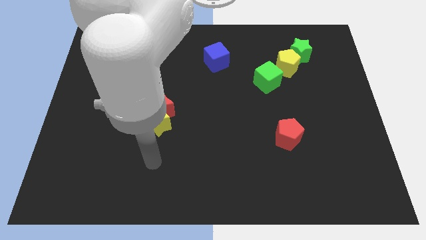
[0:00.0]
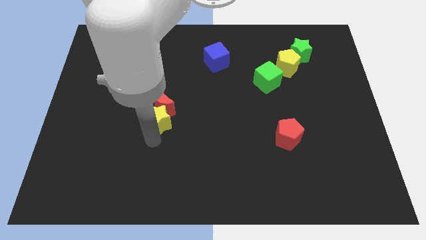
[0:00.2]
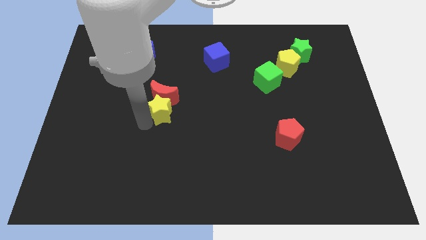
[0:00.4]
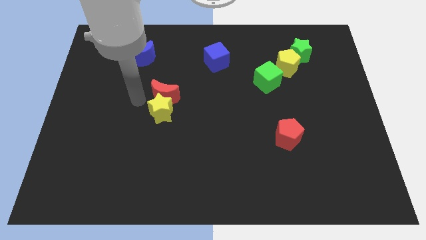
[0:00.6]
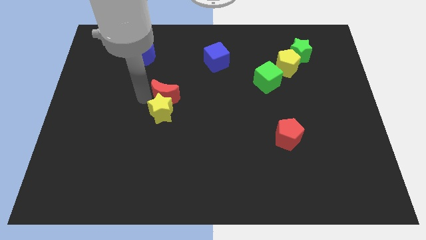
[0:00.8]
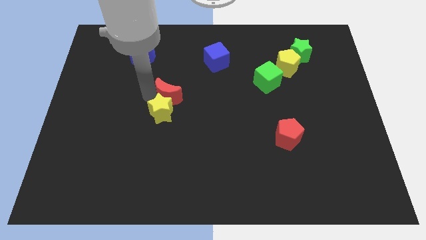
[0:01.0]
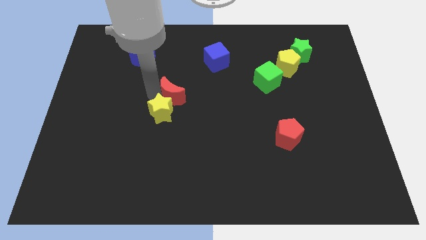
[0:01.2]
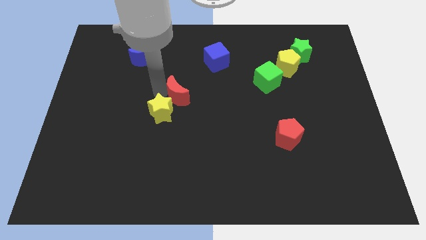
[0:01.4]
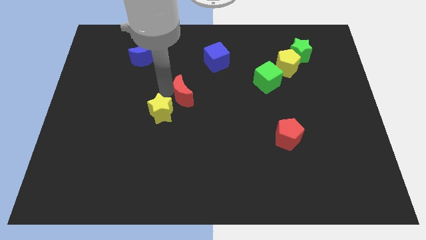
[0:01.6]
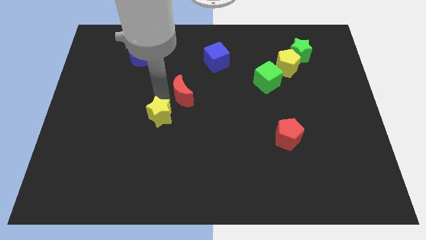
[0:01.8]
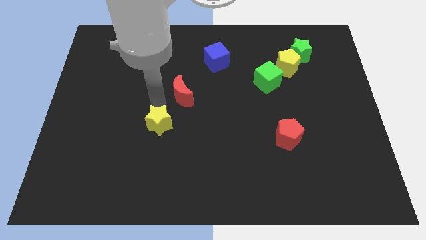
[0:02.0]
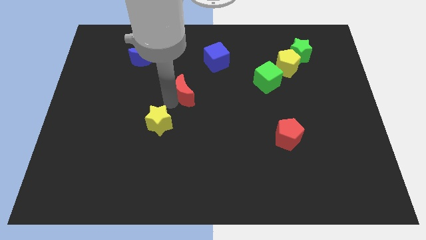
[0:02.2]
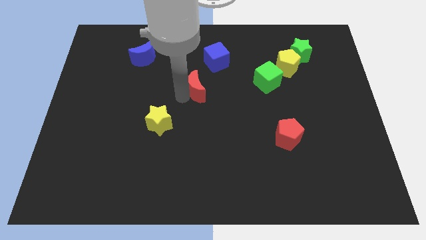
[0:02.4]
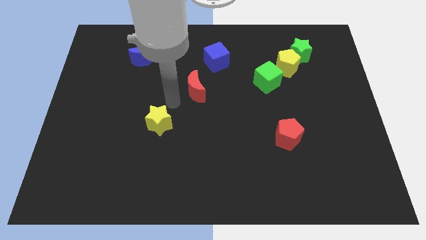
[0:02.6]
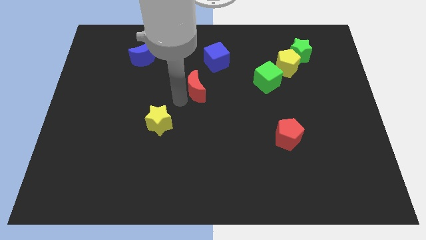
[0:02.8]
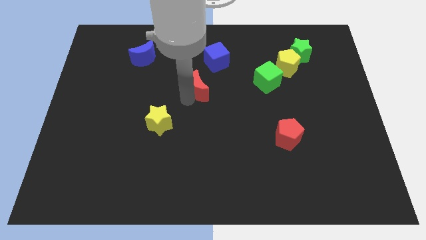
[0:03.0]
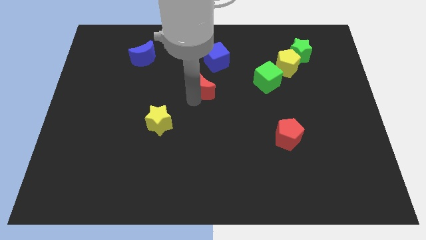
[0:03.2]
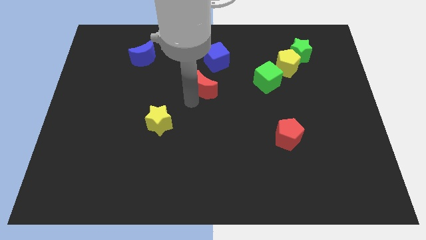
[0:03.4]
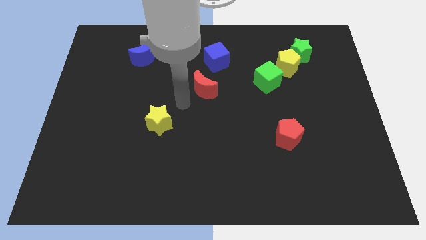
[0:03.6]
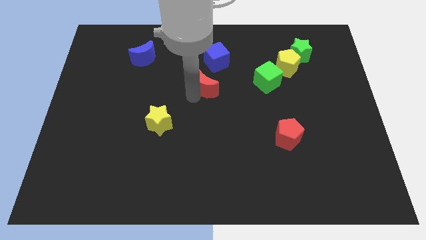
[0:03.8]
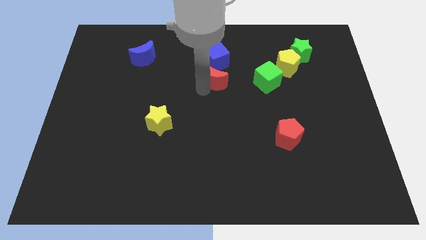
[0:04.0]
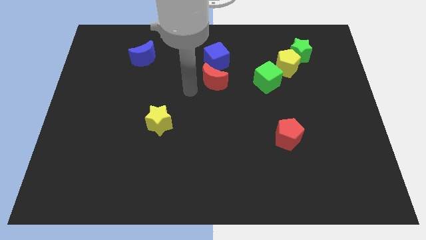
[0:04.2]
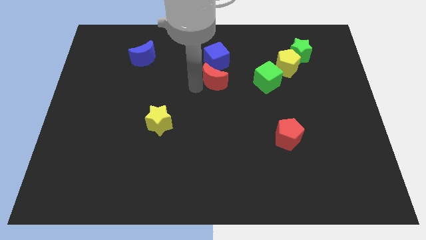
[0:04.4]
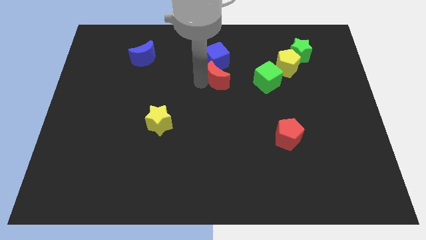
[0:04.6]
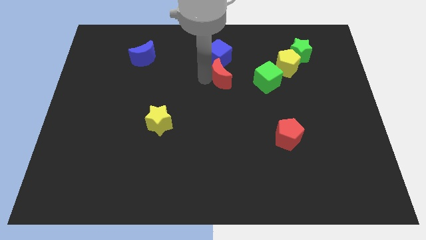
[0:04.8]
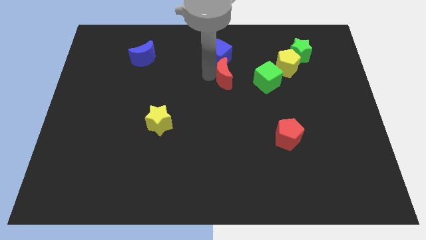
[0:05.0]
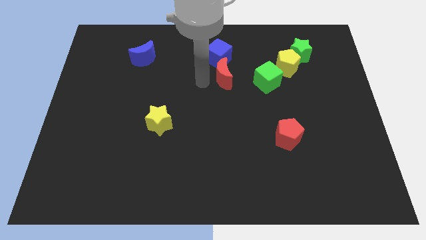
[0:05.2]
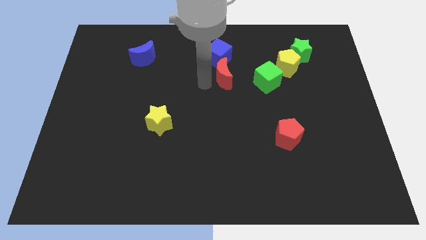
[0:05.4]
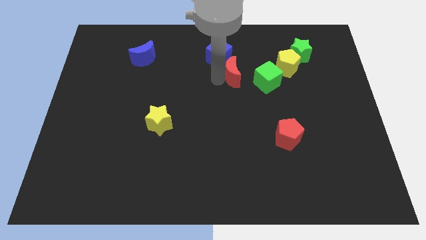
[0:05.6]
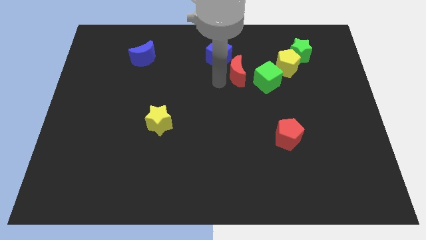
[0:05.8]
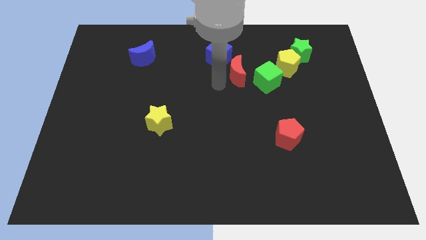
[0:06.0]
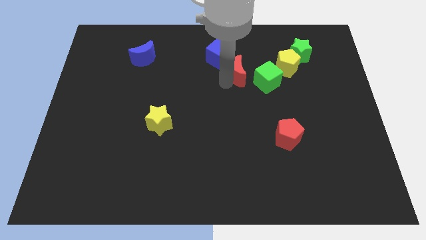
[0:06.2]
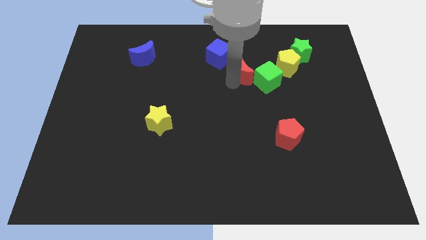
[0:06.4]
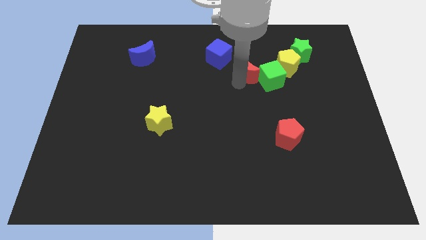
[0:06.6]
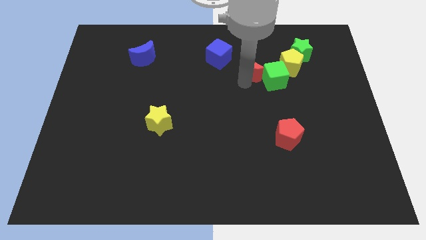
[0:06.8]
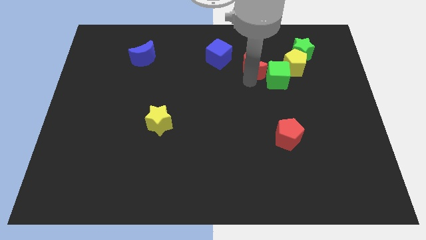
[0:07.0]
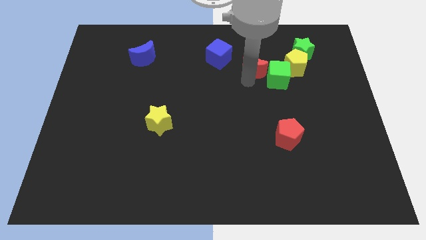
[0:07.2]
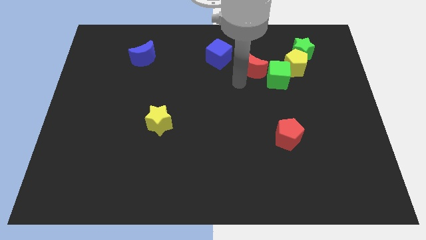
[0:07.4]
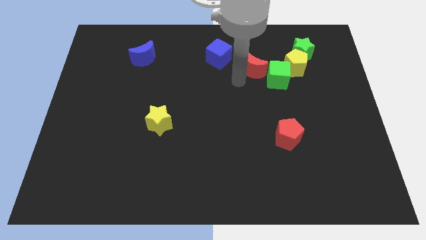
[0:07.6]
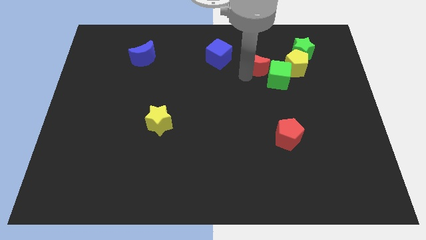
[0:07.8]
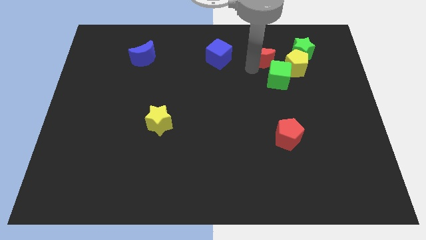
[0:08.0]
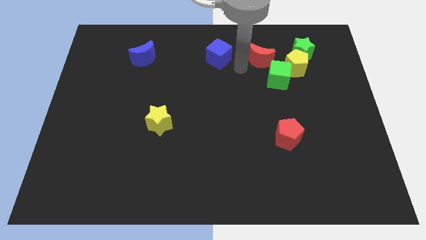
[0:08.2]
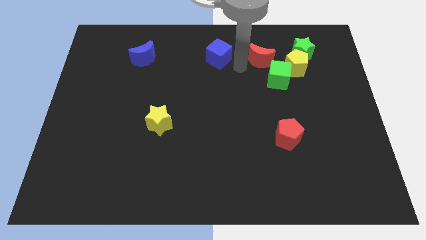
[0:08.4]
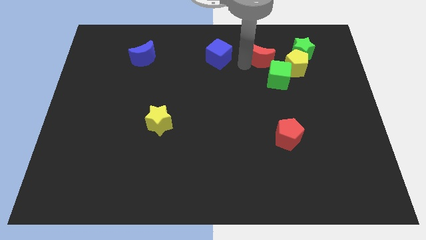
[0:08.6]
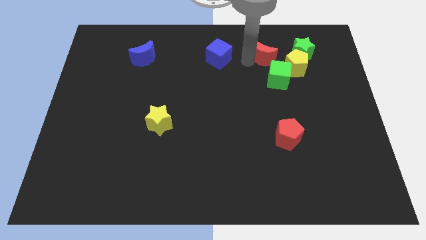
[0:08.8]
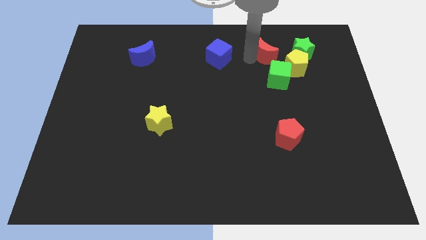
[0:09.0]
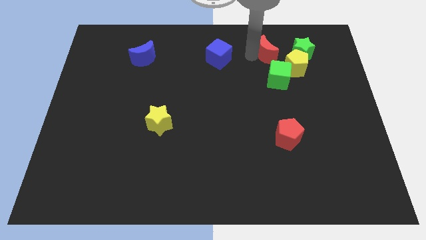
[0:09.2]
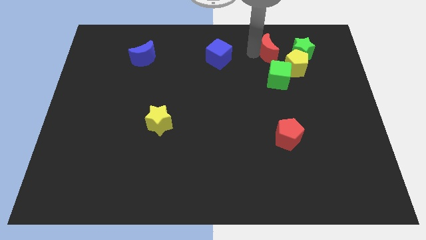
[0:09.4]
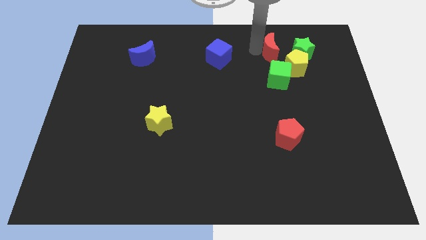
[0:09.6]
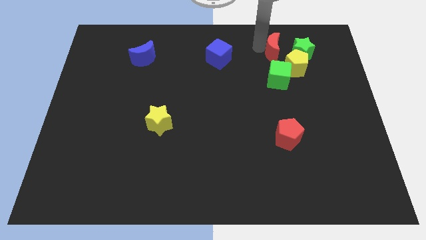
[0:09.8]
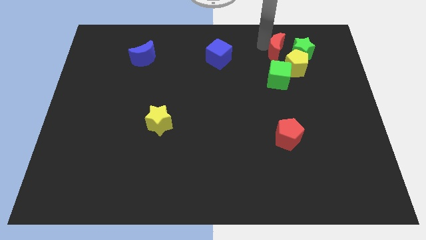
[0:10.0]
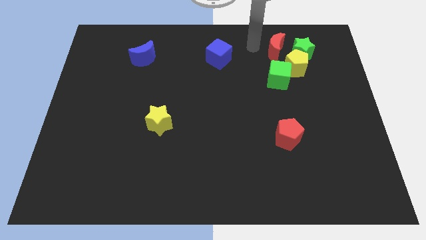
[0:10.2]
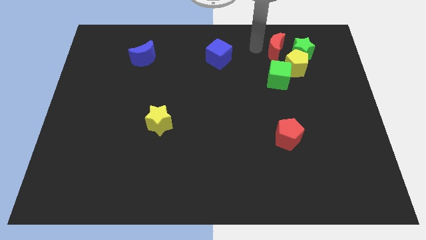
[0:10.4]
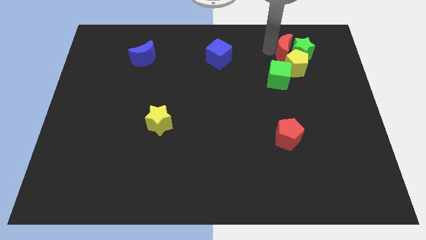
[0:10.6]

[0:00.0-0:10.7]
move the red moon next to the green star

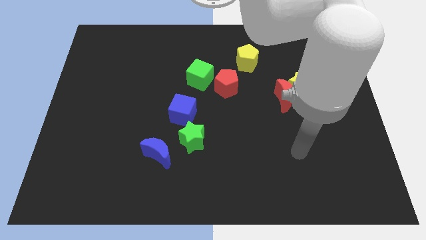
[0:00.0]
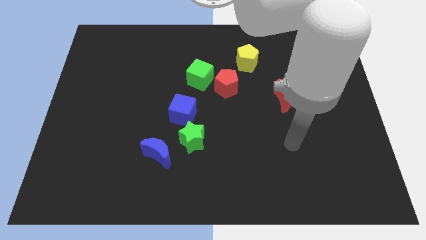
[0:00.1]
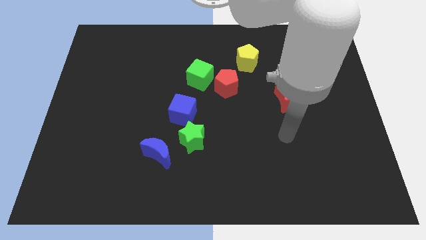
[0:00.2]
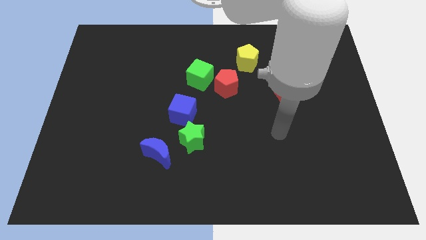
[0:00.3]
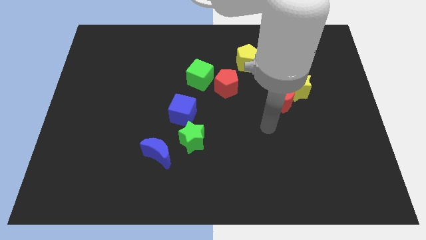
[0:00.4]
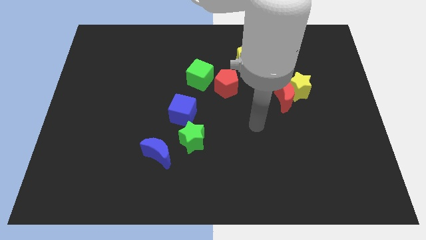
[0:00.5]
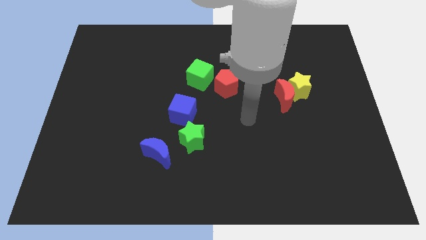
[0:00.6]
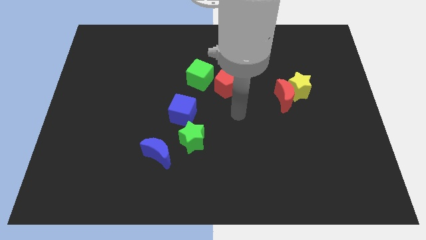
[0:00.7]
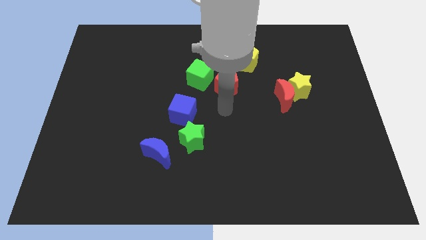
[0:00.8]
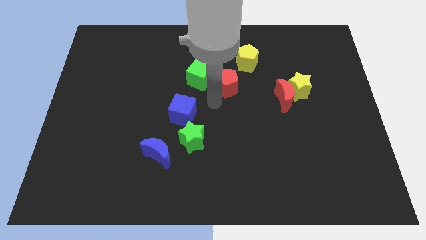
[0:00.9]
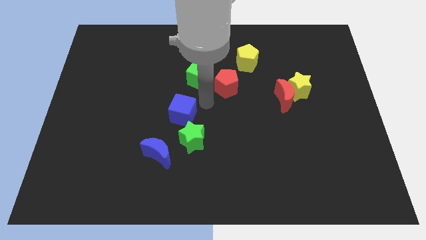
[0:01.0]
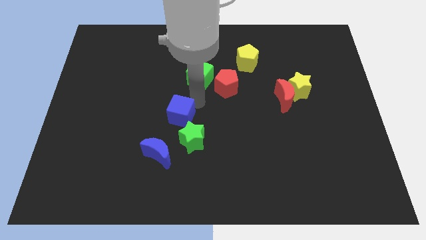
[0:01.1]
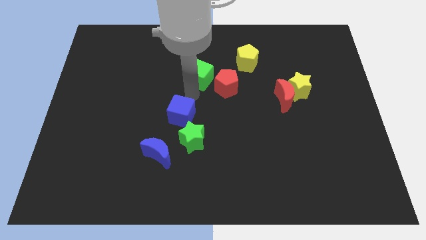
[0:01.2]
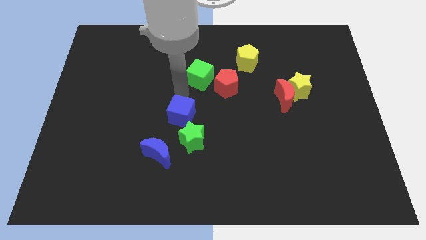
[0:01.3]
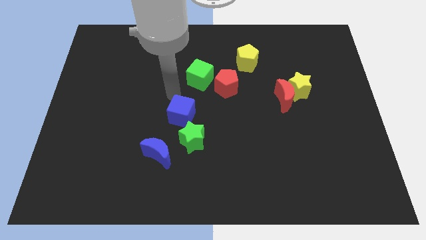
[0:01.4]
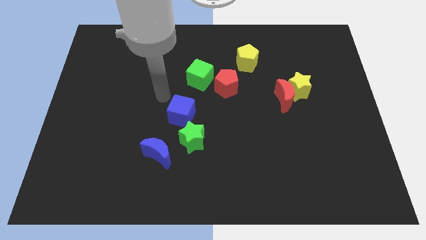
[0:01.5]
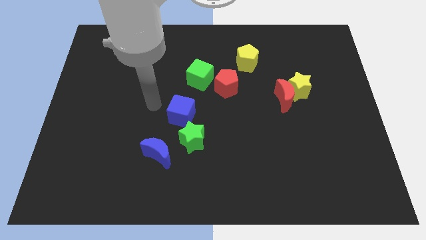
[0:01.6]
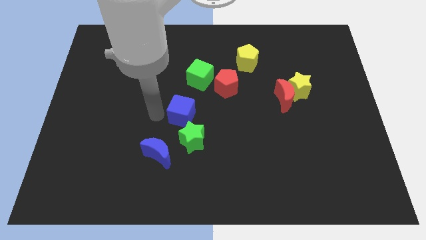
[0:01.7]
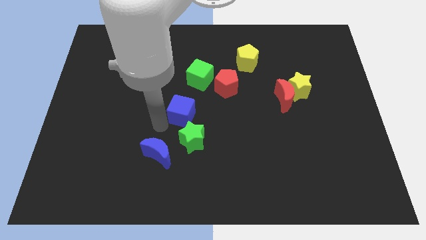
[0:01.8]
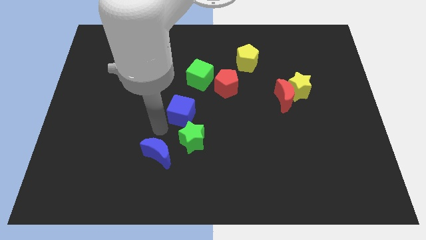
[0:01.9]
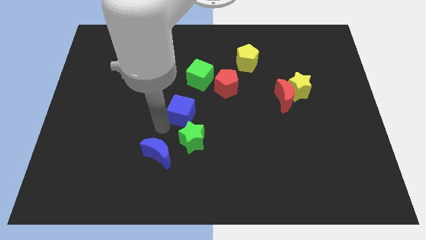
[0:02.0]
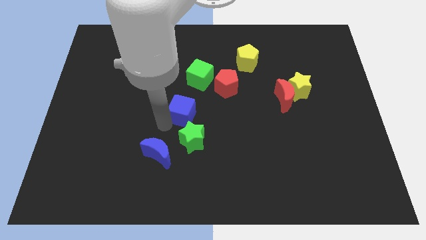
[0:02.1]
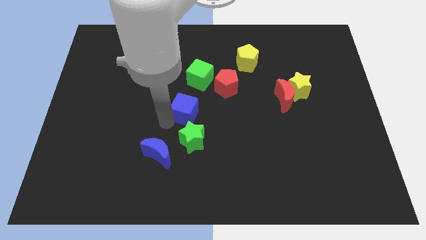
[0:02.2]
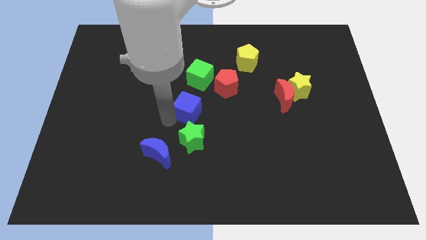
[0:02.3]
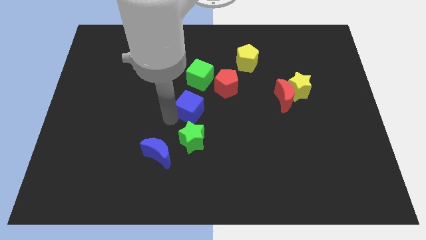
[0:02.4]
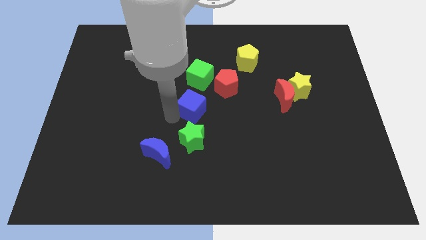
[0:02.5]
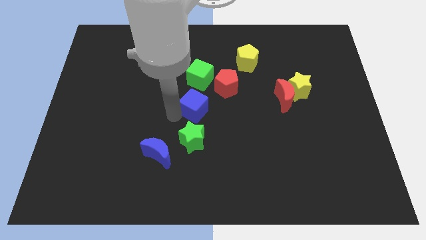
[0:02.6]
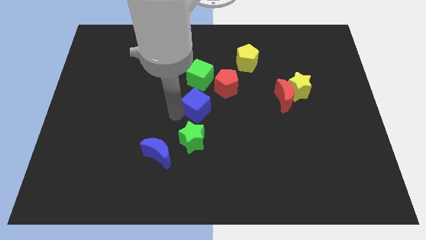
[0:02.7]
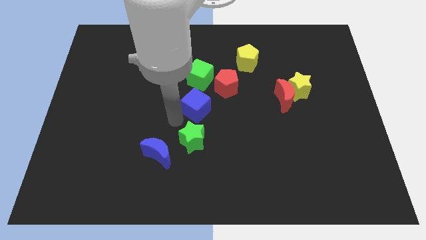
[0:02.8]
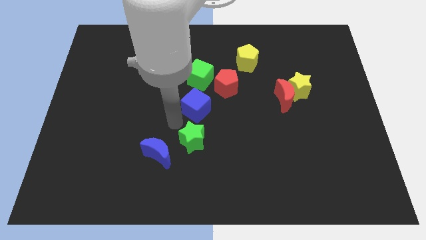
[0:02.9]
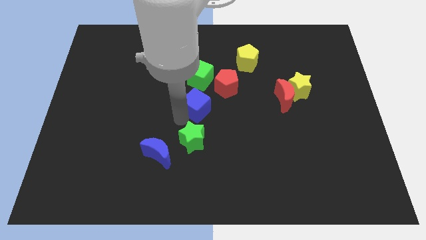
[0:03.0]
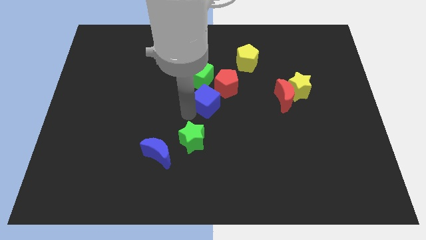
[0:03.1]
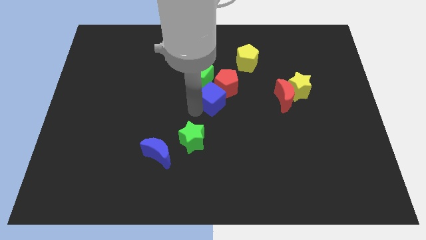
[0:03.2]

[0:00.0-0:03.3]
push the blue cube next to the red pentagon
